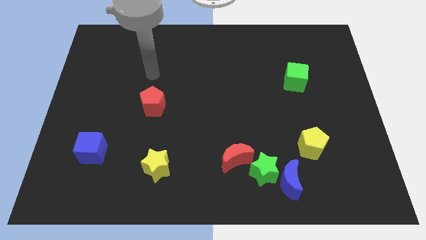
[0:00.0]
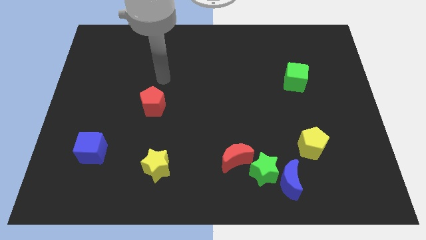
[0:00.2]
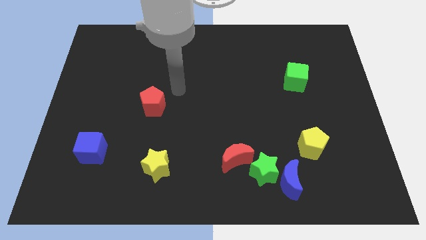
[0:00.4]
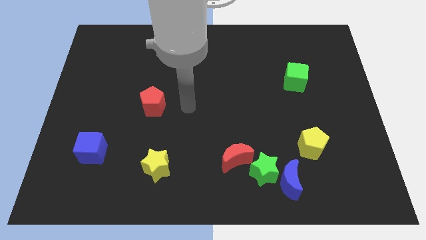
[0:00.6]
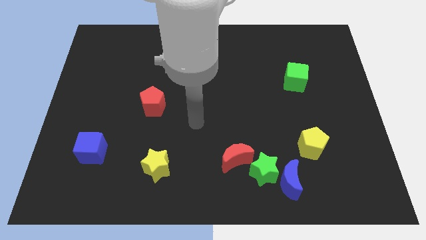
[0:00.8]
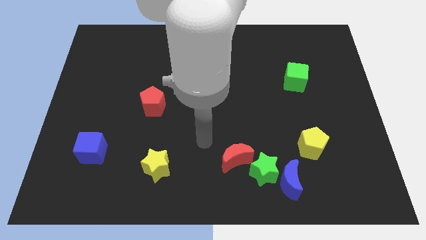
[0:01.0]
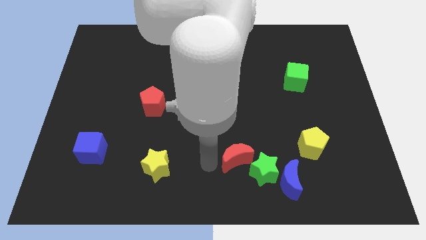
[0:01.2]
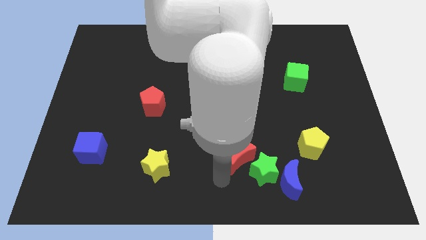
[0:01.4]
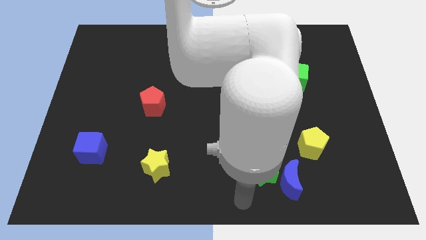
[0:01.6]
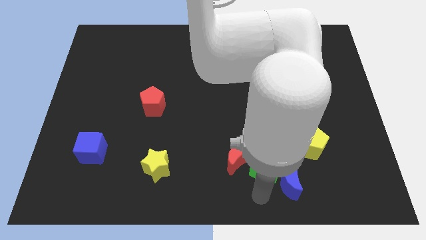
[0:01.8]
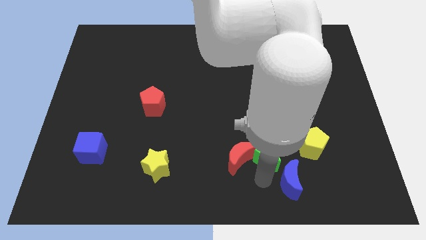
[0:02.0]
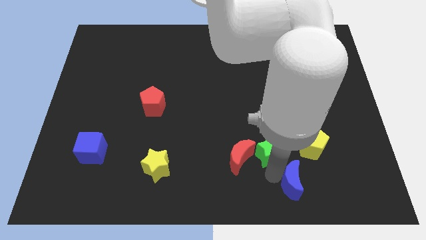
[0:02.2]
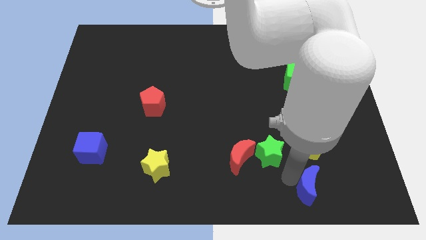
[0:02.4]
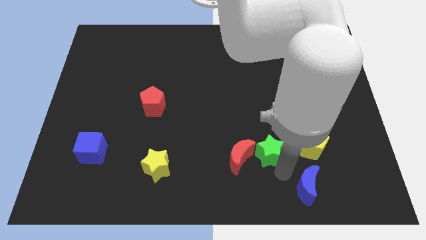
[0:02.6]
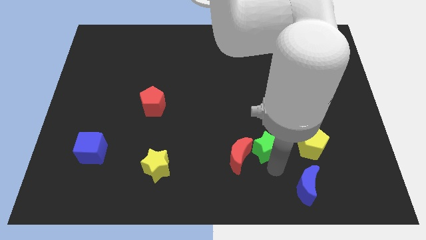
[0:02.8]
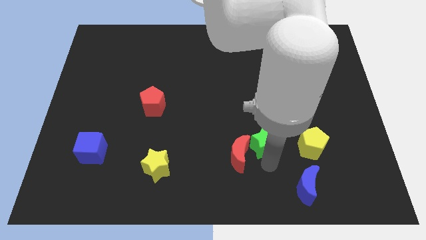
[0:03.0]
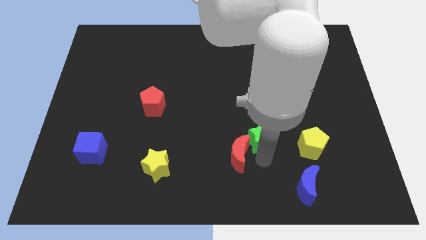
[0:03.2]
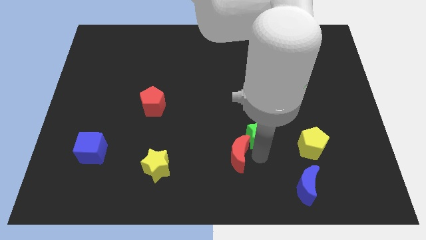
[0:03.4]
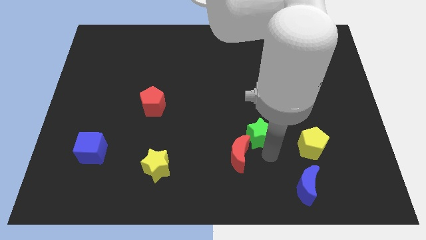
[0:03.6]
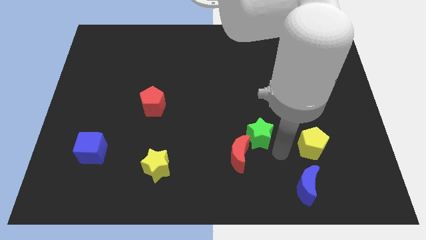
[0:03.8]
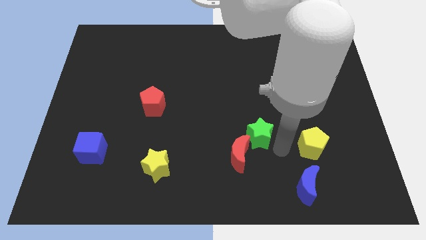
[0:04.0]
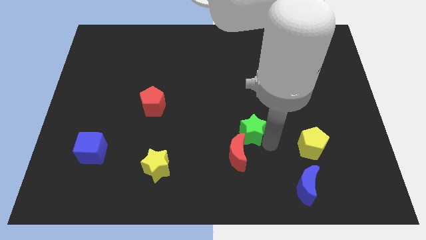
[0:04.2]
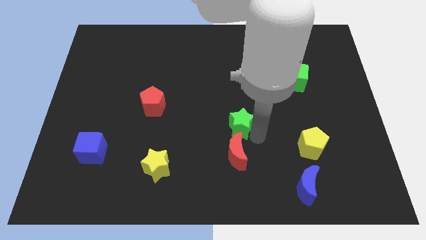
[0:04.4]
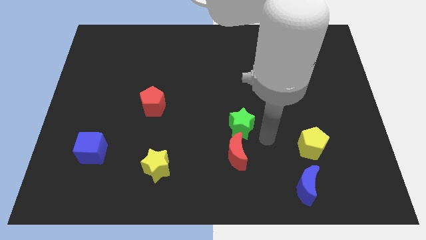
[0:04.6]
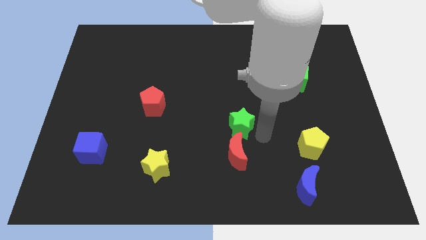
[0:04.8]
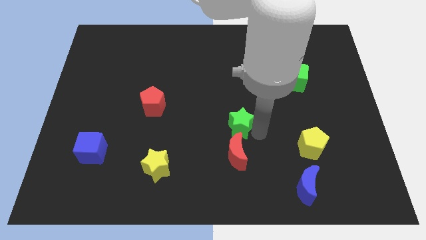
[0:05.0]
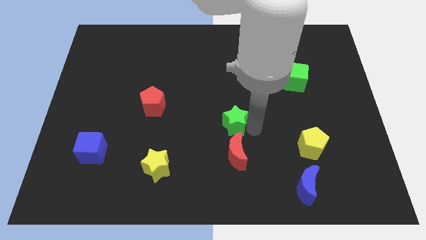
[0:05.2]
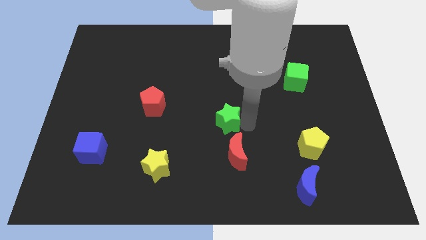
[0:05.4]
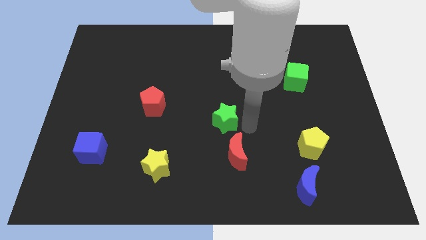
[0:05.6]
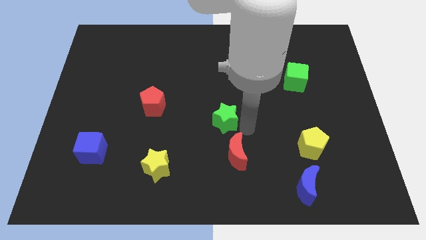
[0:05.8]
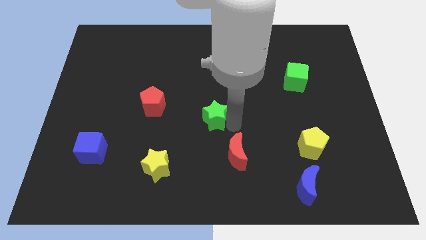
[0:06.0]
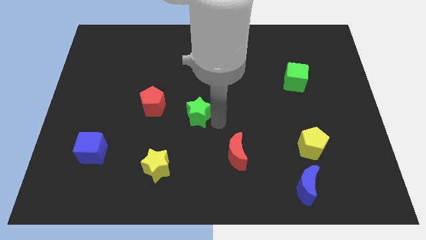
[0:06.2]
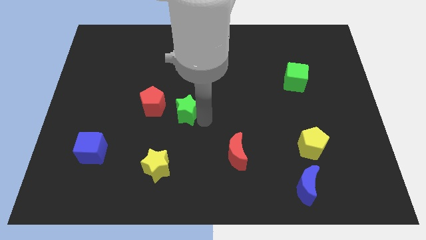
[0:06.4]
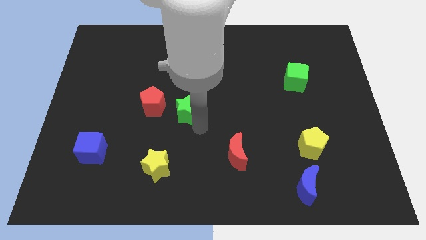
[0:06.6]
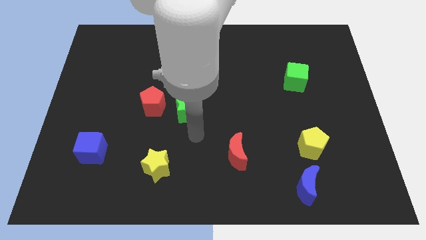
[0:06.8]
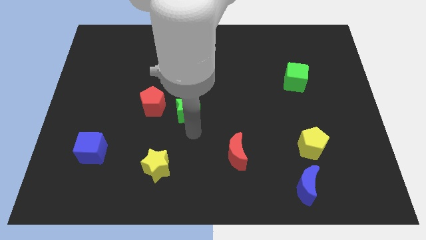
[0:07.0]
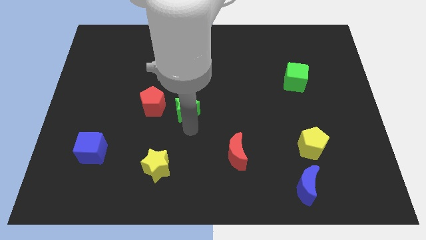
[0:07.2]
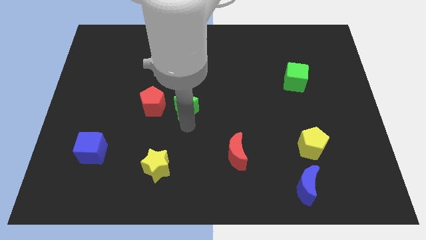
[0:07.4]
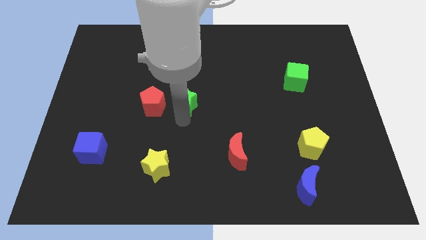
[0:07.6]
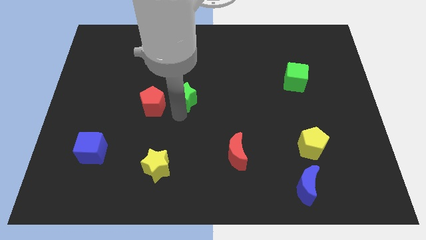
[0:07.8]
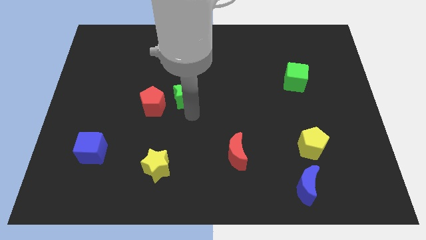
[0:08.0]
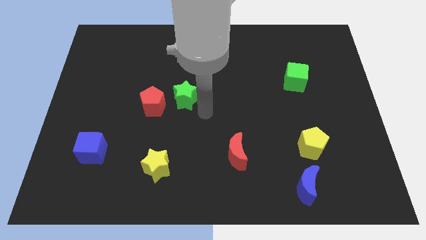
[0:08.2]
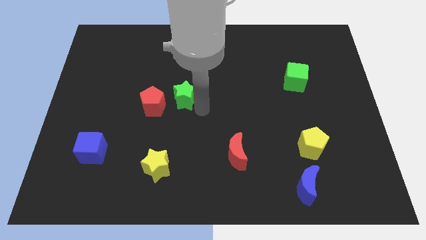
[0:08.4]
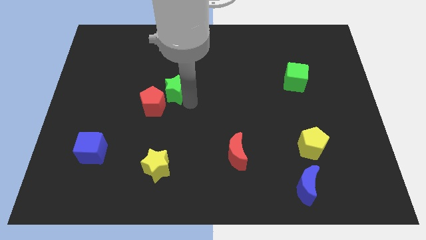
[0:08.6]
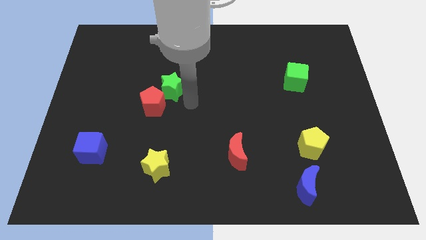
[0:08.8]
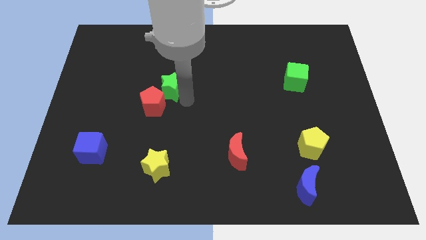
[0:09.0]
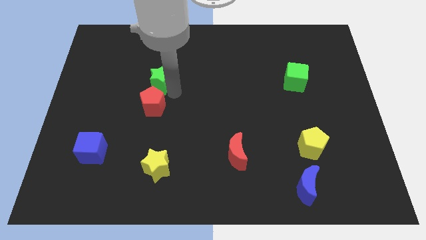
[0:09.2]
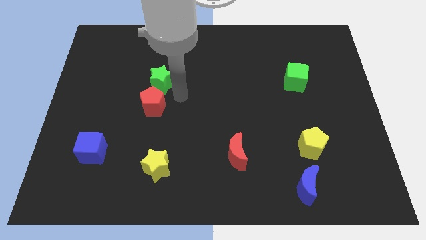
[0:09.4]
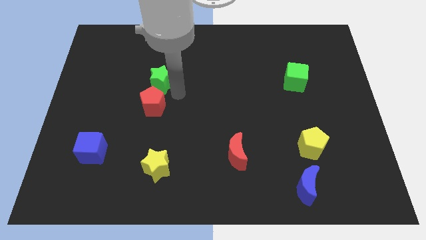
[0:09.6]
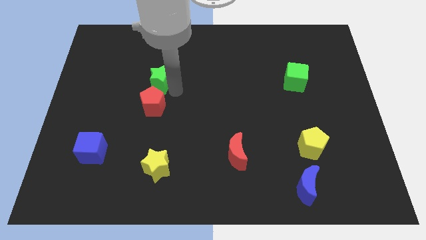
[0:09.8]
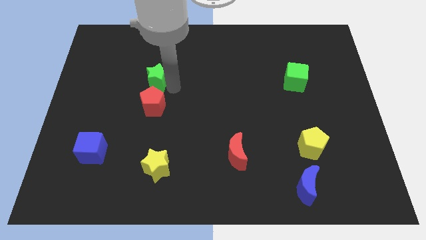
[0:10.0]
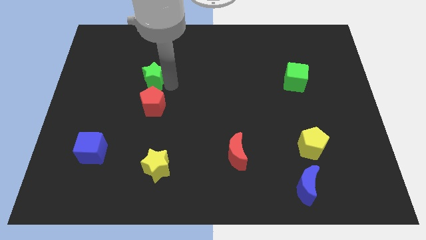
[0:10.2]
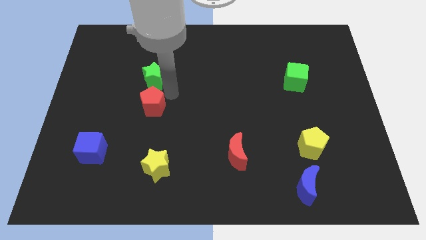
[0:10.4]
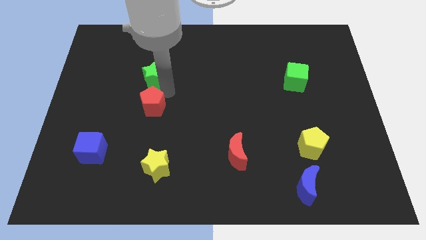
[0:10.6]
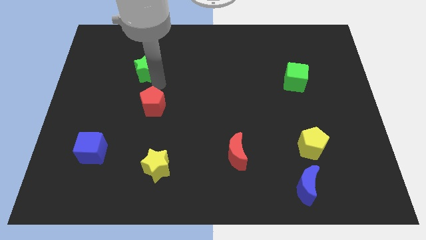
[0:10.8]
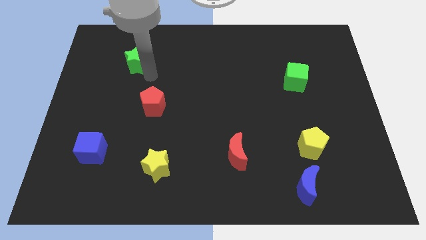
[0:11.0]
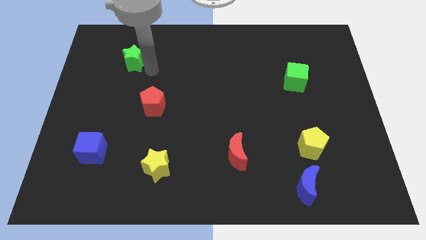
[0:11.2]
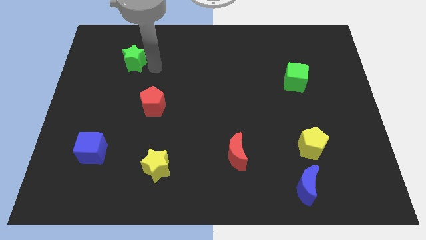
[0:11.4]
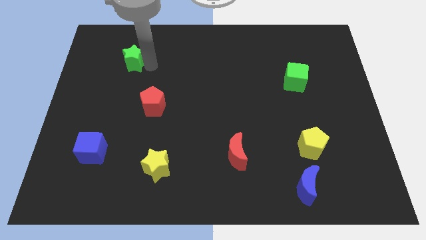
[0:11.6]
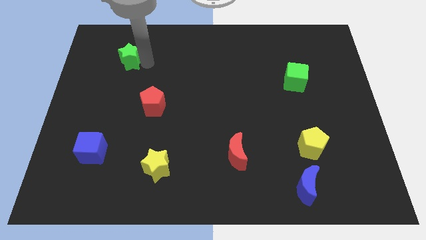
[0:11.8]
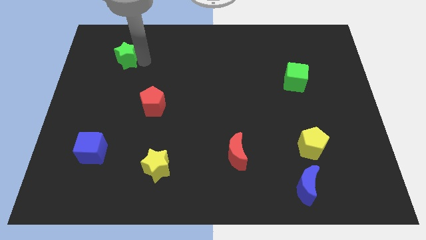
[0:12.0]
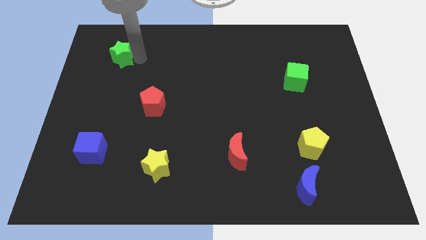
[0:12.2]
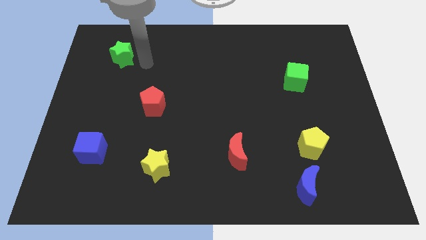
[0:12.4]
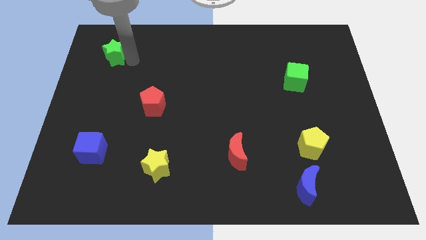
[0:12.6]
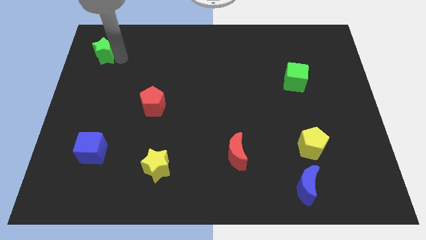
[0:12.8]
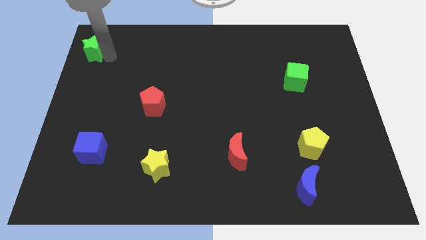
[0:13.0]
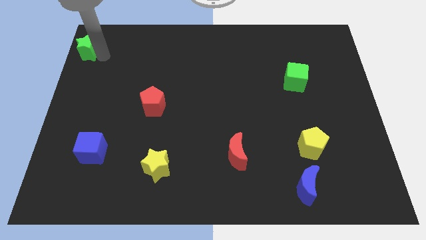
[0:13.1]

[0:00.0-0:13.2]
move the green star to the top left
